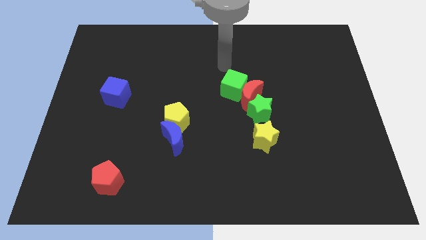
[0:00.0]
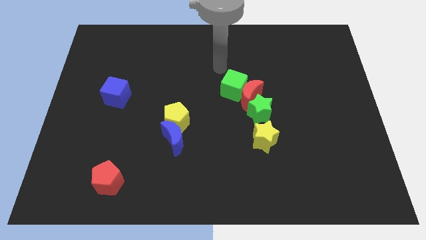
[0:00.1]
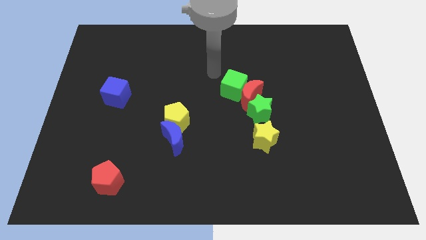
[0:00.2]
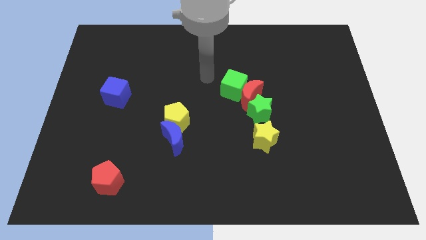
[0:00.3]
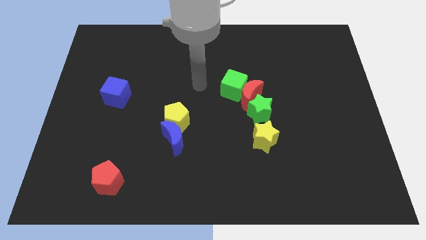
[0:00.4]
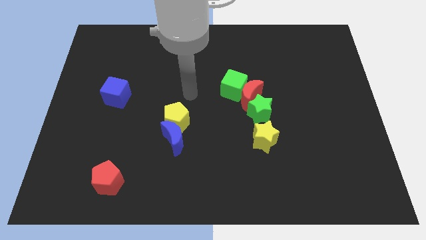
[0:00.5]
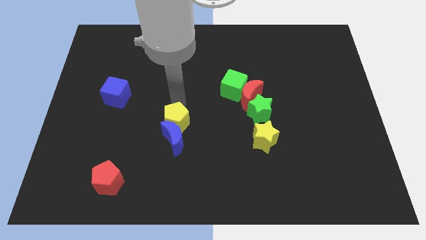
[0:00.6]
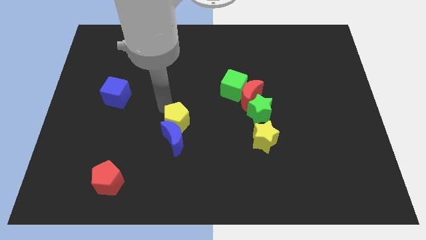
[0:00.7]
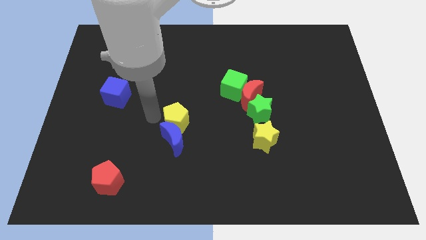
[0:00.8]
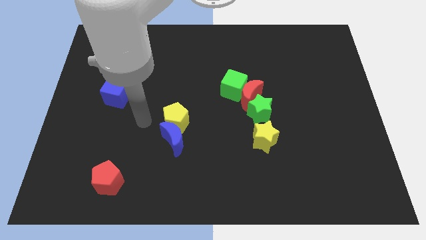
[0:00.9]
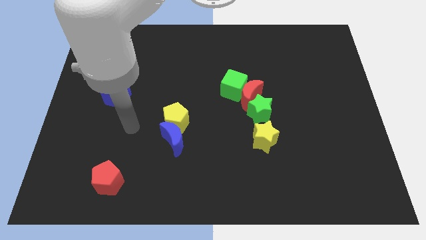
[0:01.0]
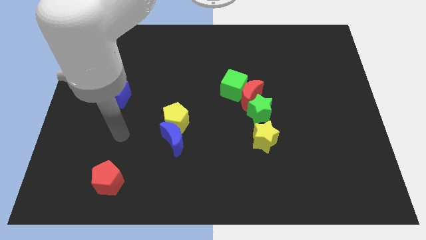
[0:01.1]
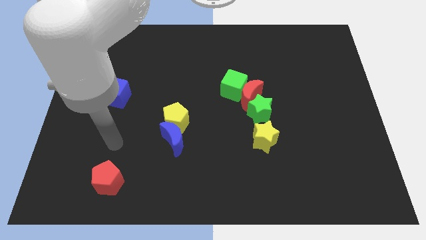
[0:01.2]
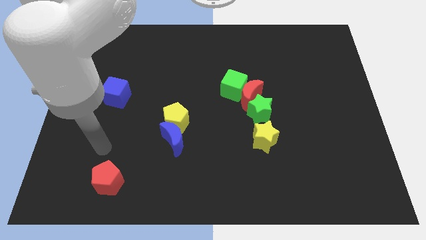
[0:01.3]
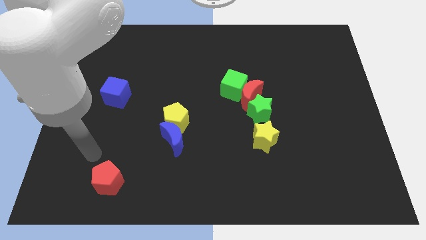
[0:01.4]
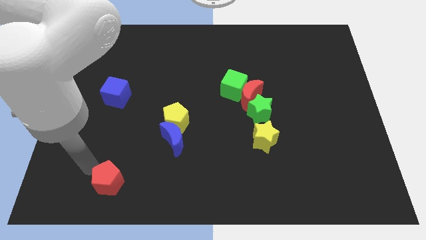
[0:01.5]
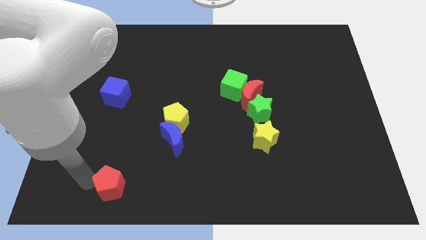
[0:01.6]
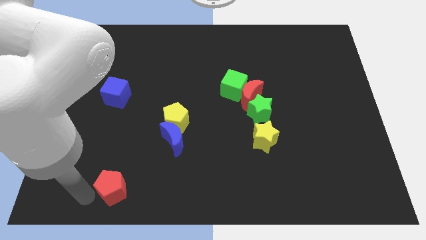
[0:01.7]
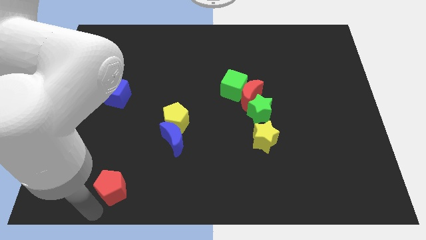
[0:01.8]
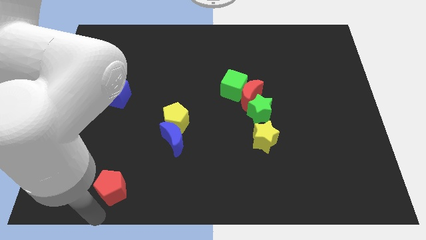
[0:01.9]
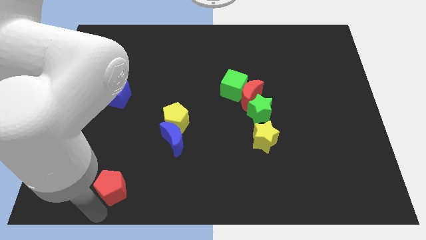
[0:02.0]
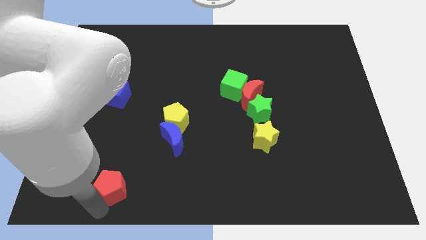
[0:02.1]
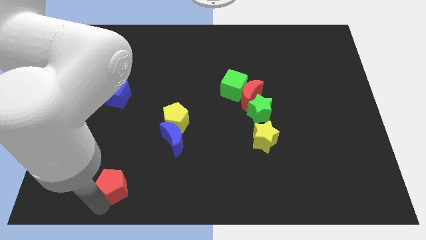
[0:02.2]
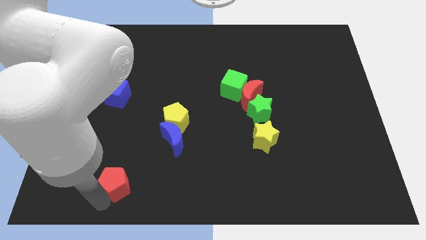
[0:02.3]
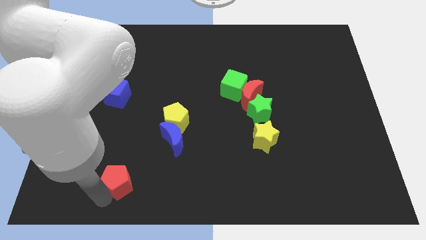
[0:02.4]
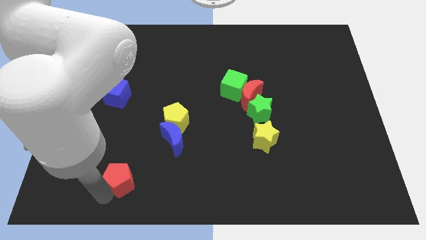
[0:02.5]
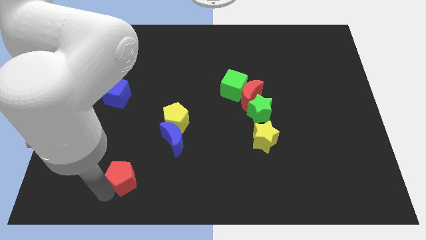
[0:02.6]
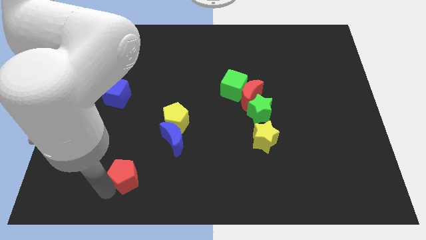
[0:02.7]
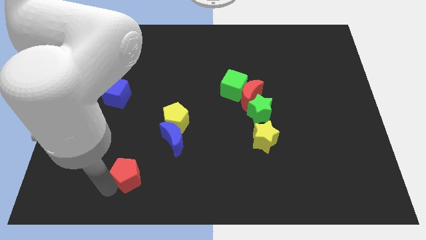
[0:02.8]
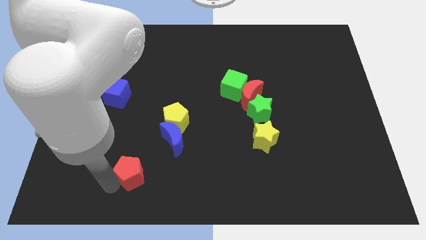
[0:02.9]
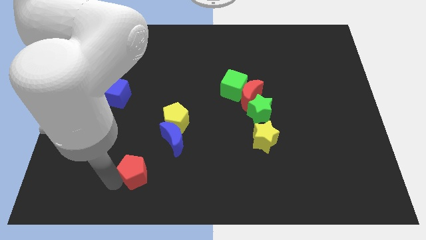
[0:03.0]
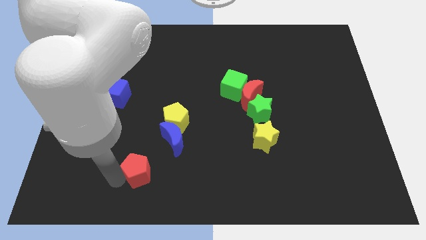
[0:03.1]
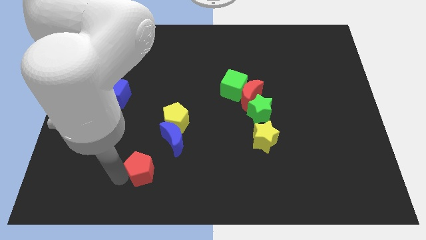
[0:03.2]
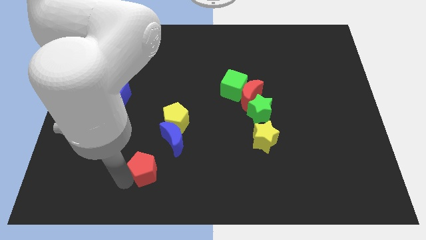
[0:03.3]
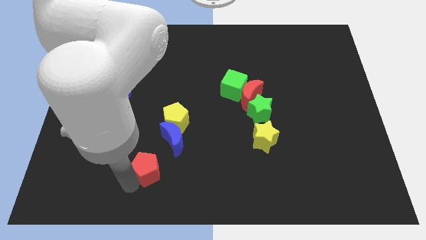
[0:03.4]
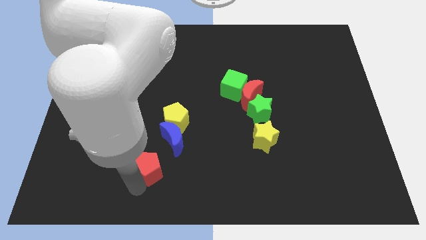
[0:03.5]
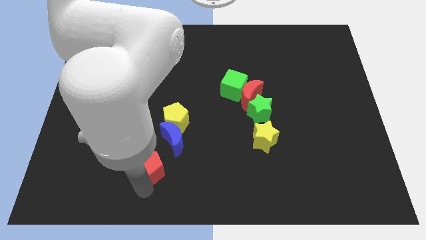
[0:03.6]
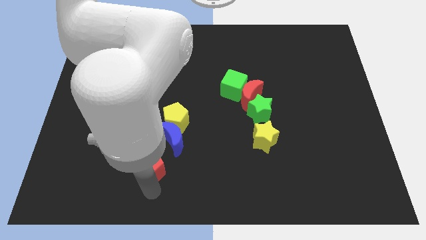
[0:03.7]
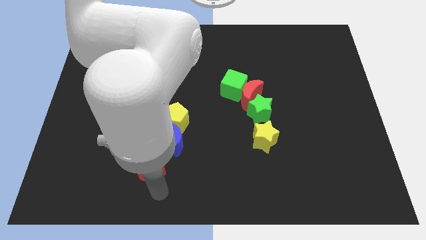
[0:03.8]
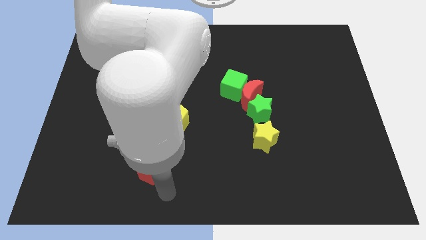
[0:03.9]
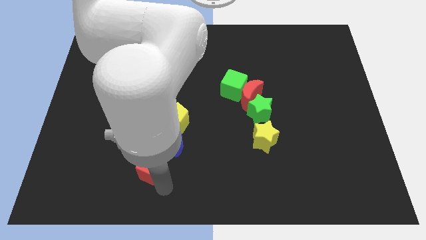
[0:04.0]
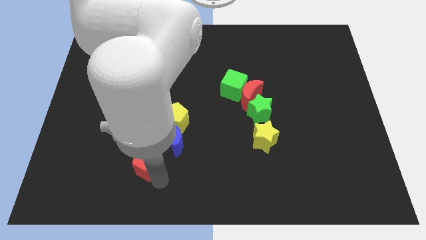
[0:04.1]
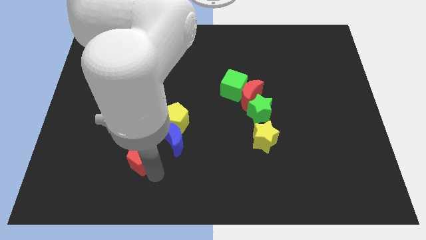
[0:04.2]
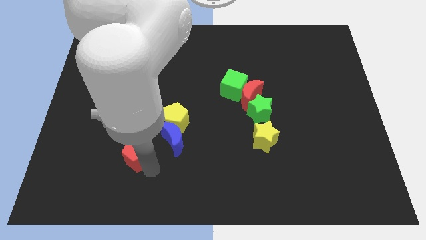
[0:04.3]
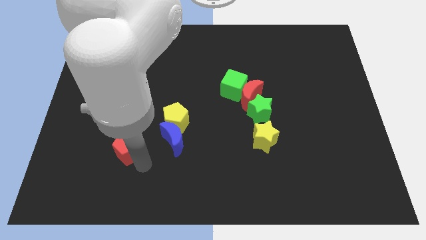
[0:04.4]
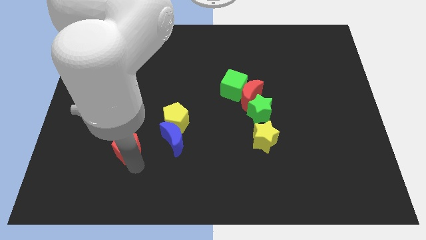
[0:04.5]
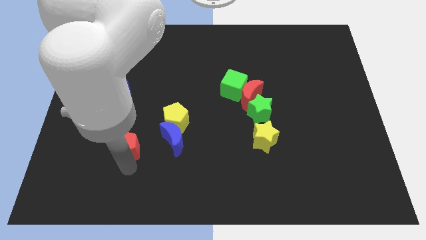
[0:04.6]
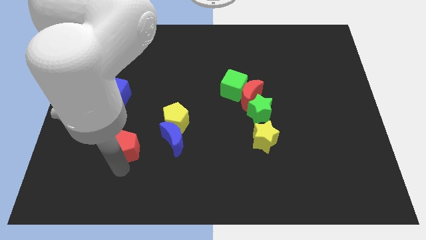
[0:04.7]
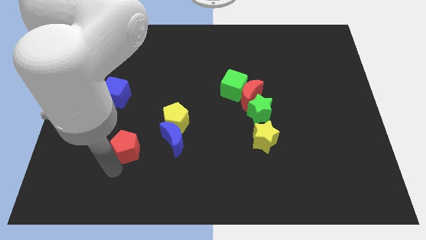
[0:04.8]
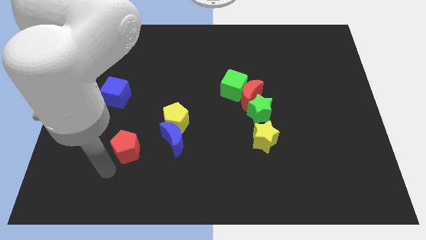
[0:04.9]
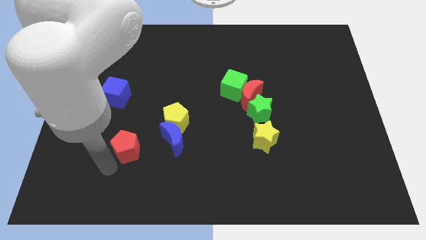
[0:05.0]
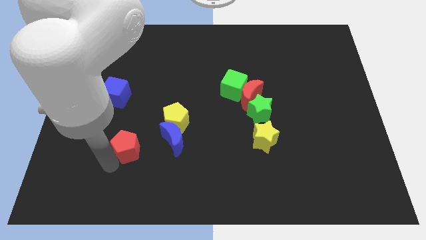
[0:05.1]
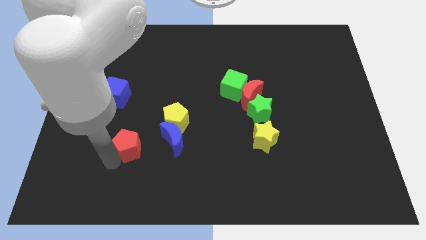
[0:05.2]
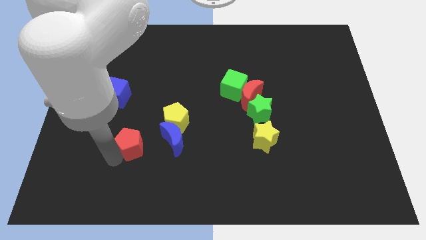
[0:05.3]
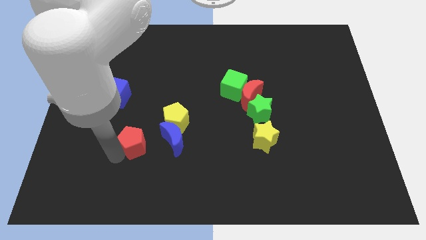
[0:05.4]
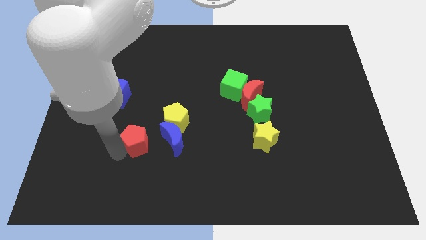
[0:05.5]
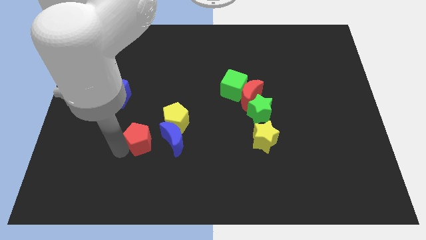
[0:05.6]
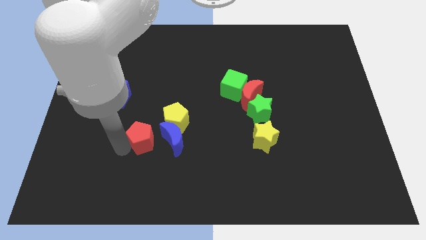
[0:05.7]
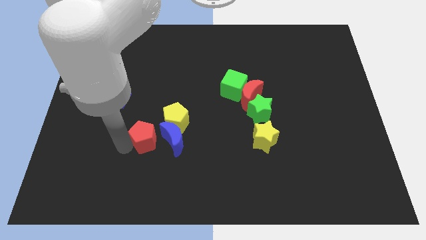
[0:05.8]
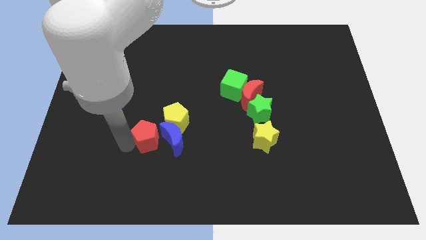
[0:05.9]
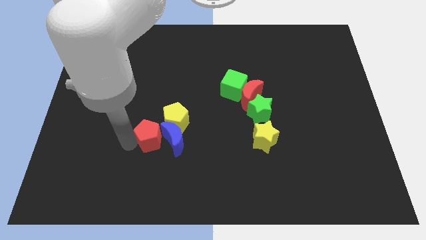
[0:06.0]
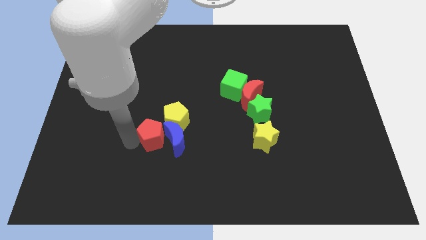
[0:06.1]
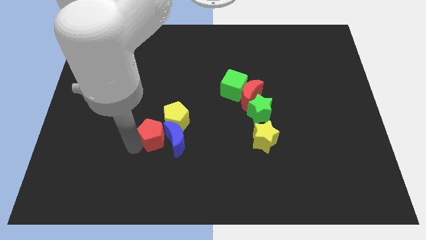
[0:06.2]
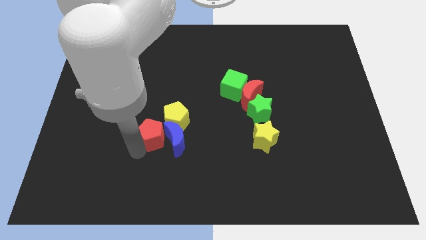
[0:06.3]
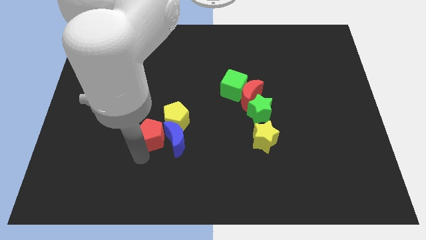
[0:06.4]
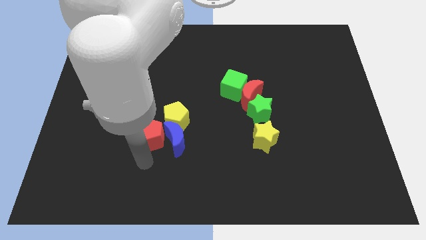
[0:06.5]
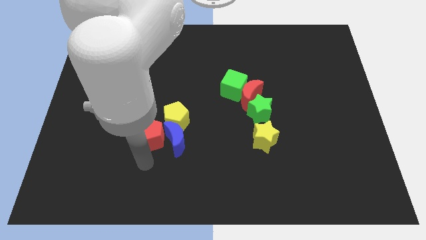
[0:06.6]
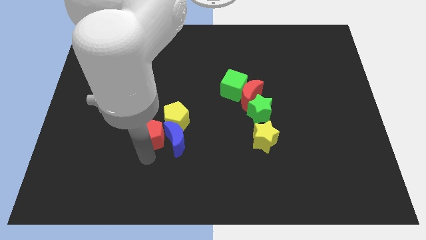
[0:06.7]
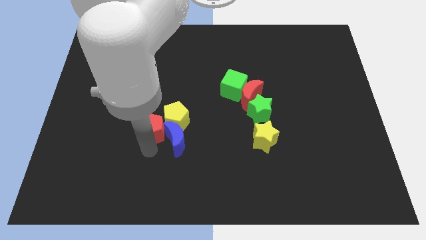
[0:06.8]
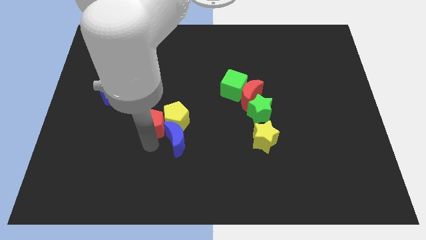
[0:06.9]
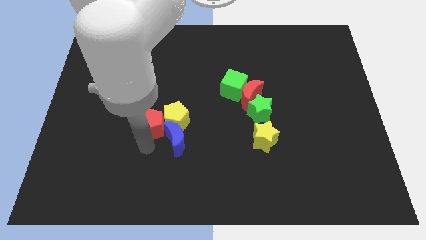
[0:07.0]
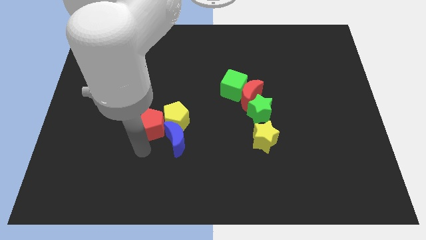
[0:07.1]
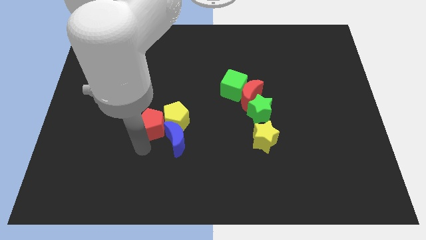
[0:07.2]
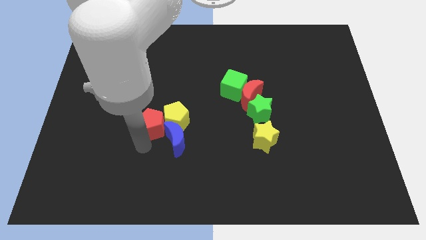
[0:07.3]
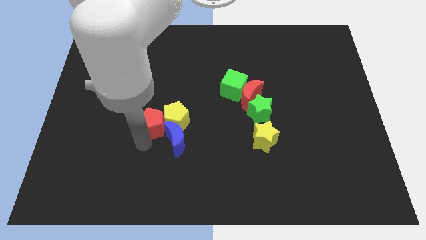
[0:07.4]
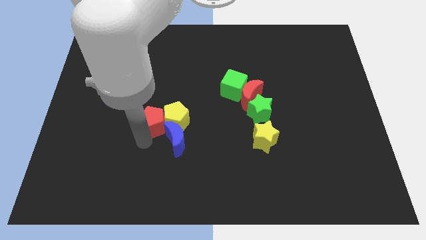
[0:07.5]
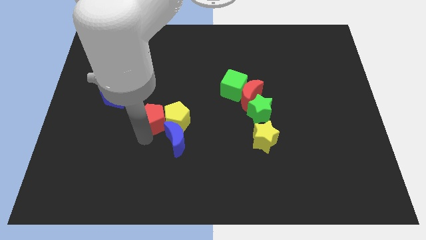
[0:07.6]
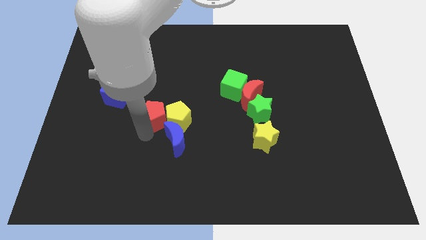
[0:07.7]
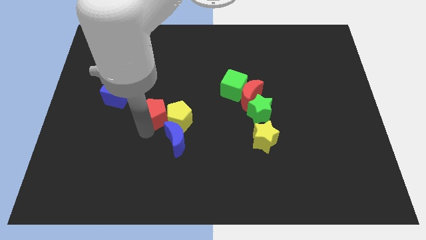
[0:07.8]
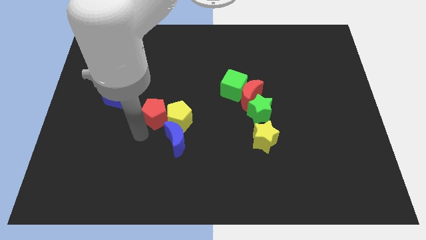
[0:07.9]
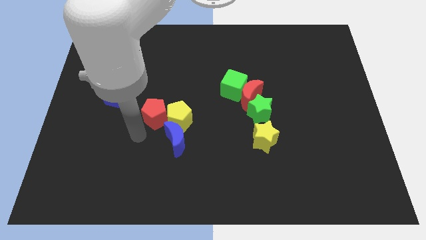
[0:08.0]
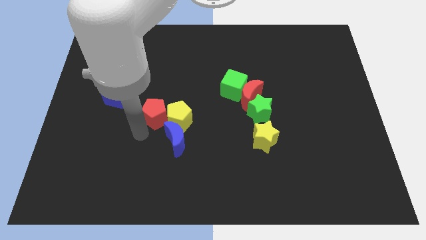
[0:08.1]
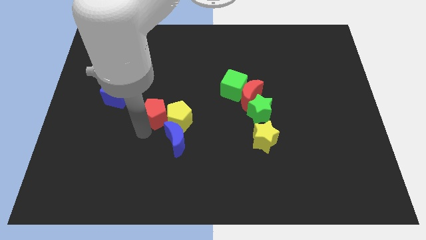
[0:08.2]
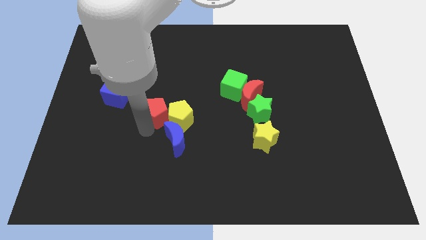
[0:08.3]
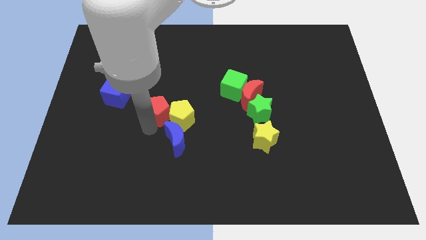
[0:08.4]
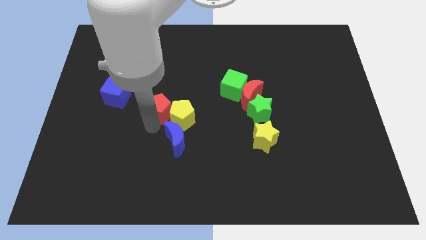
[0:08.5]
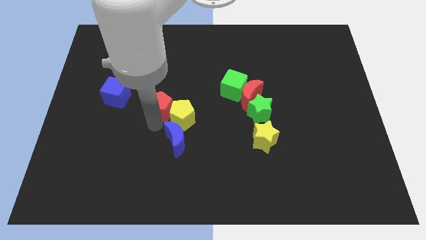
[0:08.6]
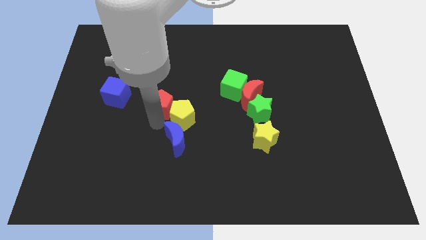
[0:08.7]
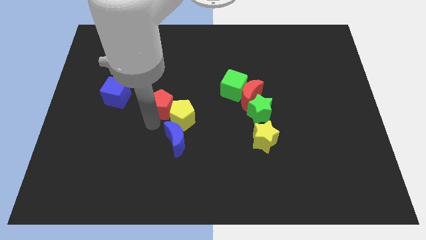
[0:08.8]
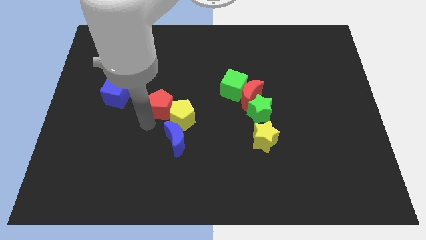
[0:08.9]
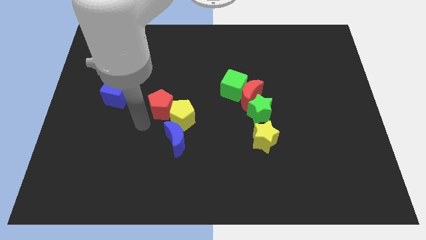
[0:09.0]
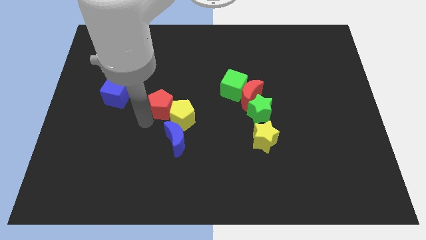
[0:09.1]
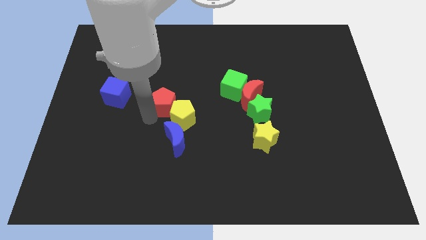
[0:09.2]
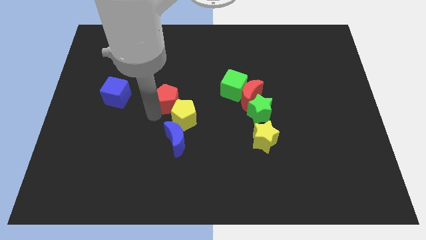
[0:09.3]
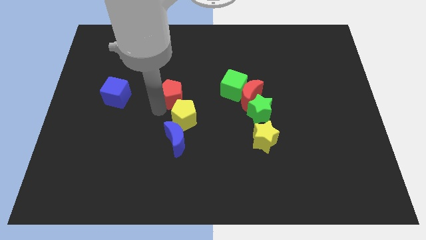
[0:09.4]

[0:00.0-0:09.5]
slide the red pentagon left of the green cube
